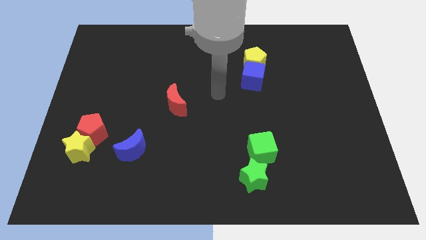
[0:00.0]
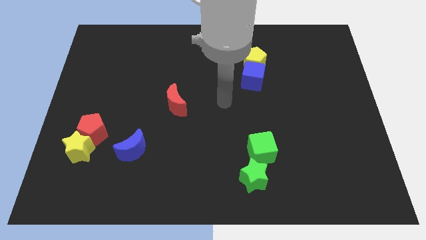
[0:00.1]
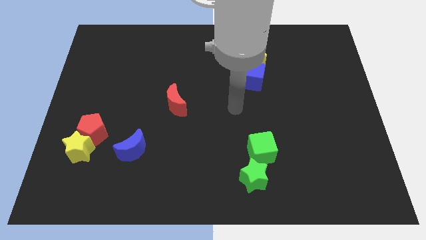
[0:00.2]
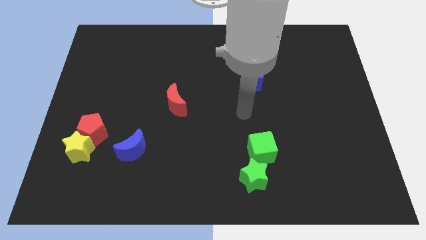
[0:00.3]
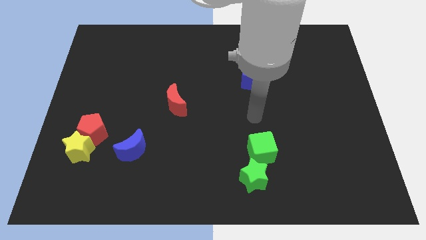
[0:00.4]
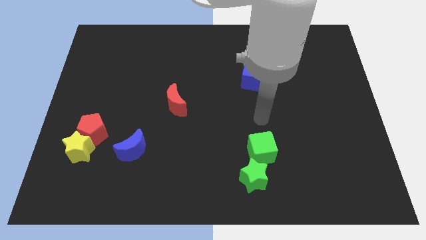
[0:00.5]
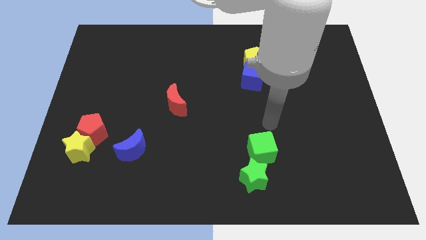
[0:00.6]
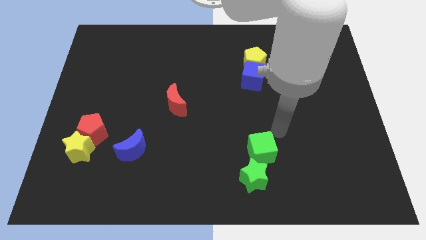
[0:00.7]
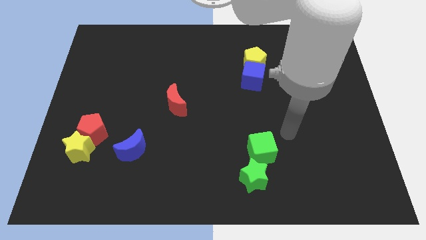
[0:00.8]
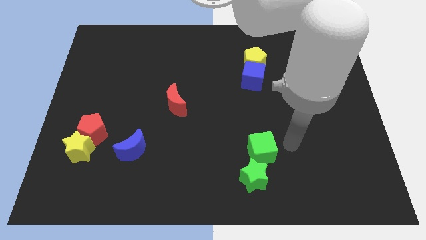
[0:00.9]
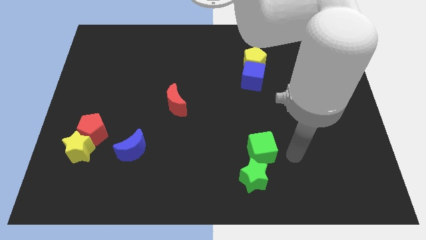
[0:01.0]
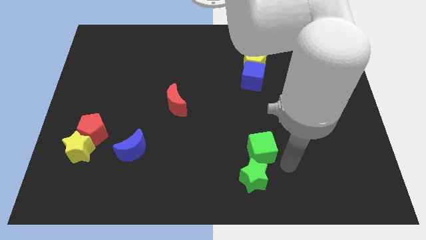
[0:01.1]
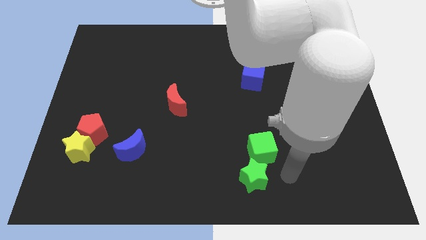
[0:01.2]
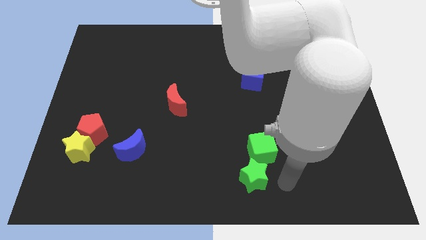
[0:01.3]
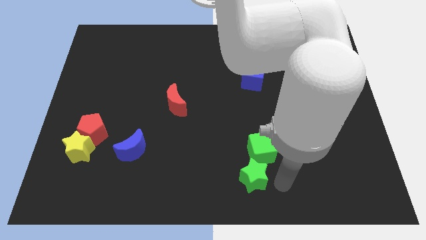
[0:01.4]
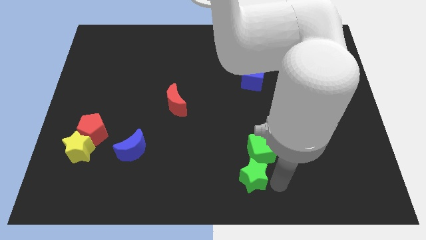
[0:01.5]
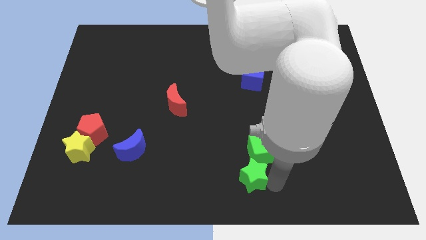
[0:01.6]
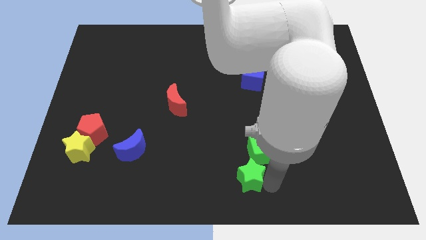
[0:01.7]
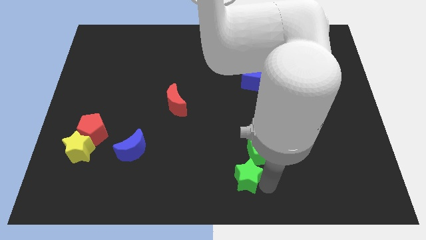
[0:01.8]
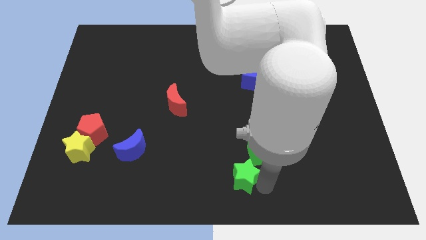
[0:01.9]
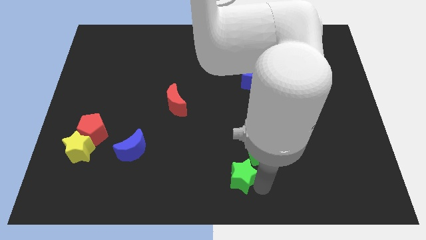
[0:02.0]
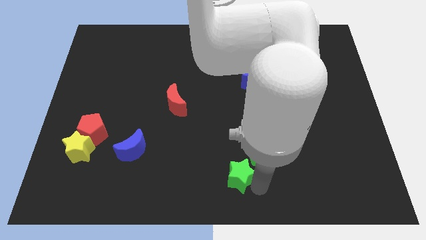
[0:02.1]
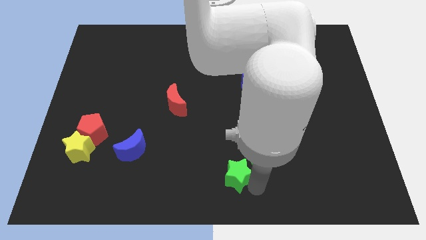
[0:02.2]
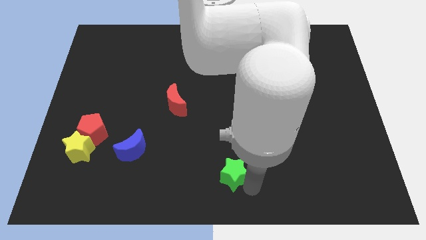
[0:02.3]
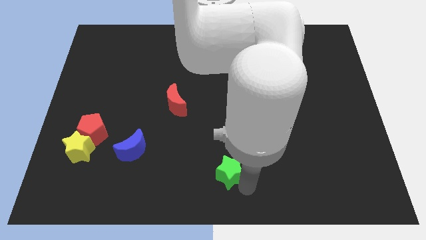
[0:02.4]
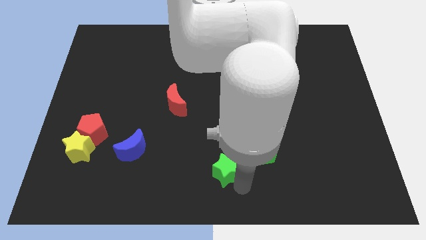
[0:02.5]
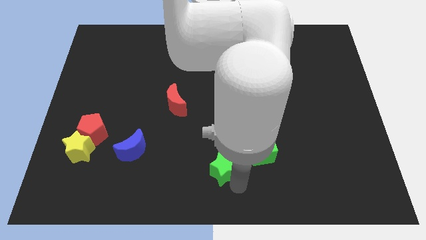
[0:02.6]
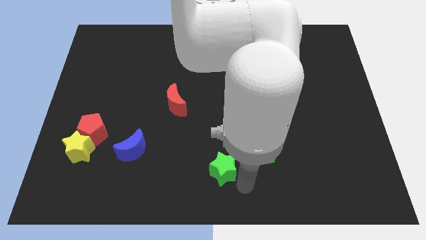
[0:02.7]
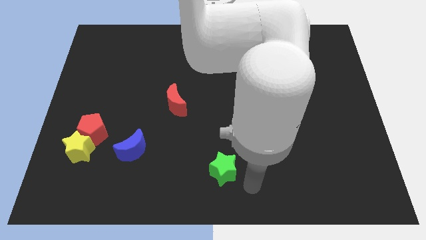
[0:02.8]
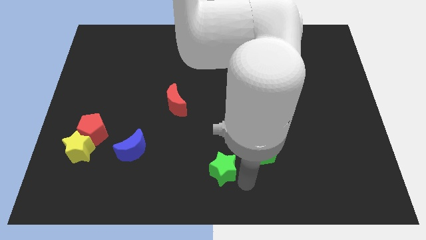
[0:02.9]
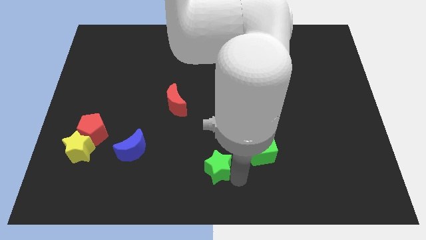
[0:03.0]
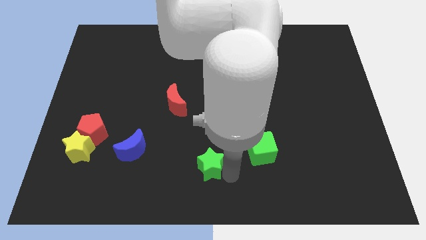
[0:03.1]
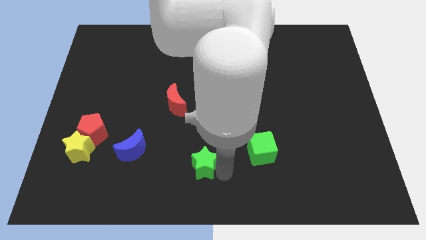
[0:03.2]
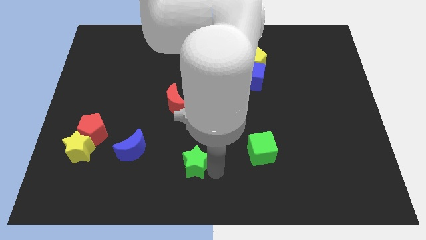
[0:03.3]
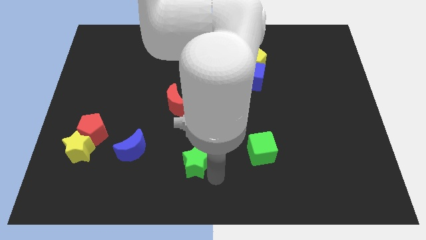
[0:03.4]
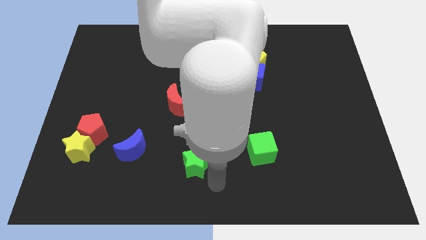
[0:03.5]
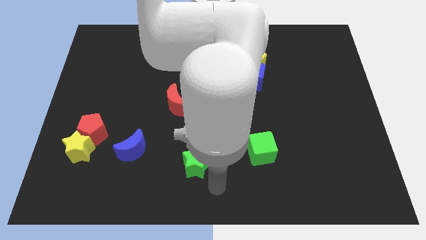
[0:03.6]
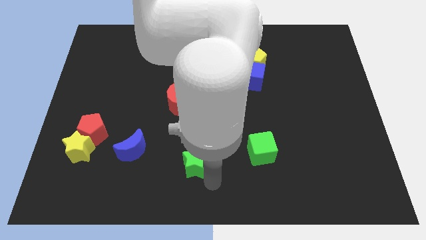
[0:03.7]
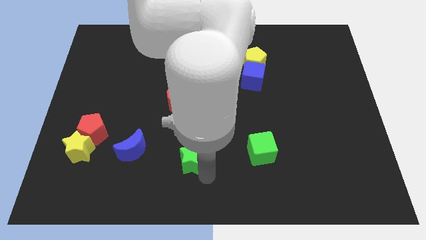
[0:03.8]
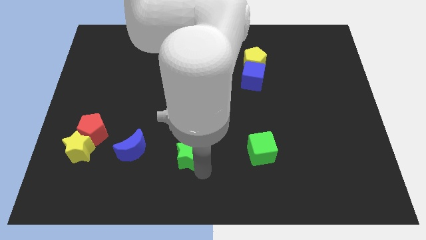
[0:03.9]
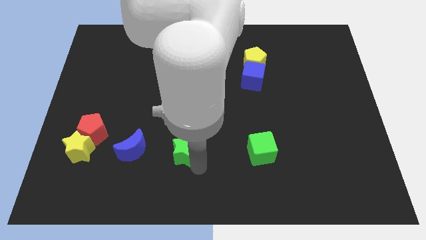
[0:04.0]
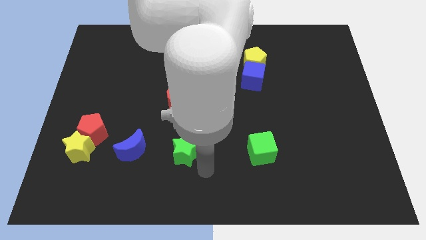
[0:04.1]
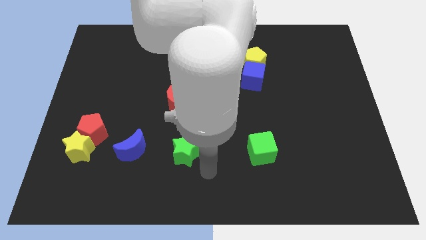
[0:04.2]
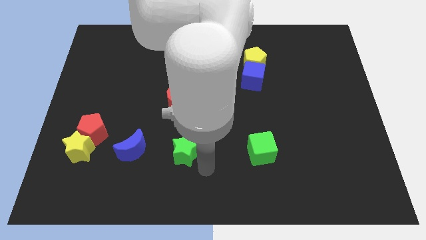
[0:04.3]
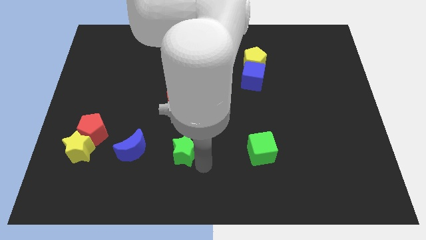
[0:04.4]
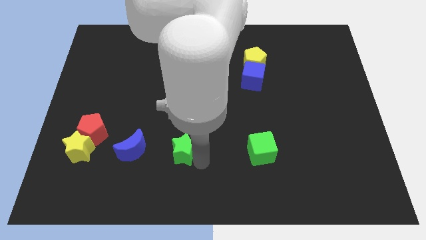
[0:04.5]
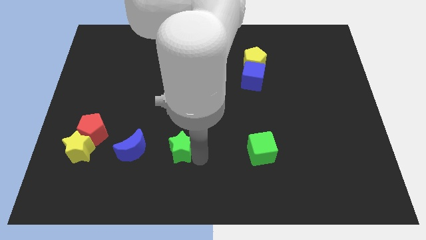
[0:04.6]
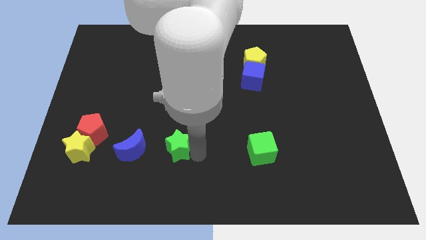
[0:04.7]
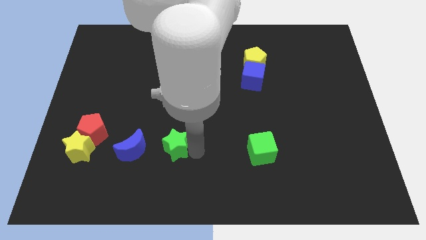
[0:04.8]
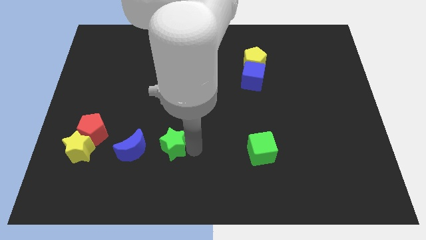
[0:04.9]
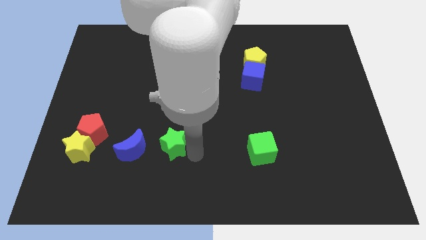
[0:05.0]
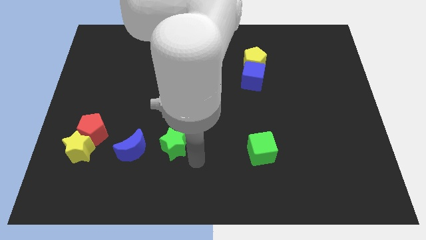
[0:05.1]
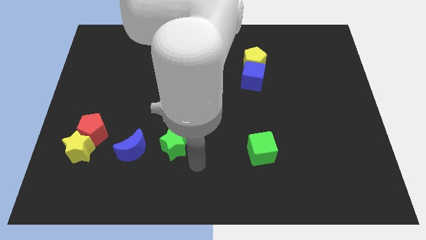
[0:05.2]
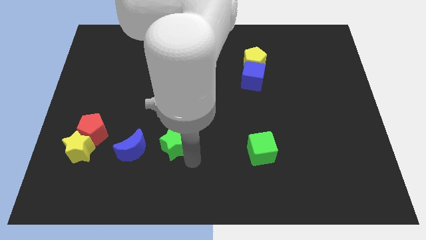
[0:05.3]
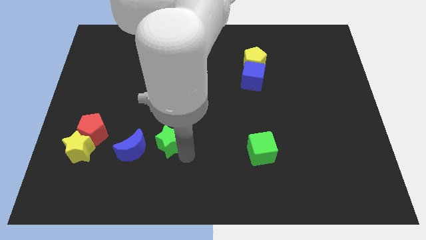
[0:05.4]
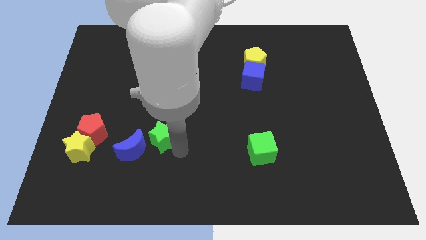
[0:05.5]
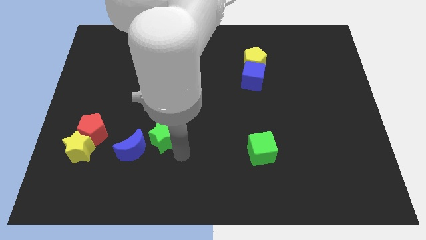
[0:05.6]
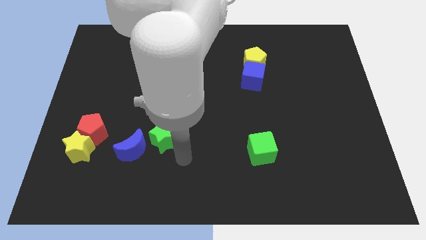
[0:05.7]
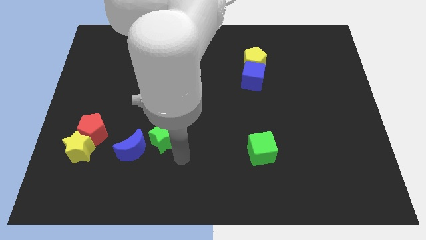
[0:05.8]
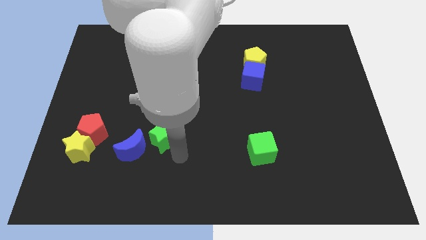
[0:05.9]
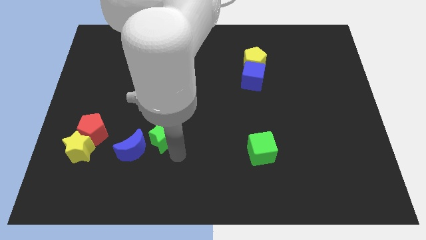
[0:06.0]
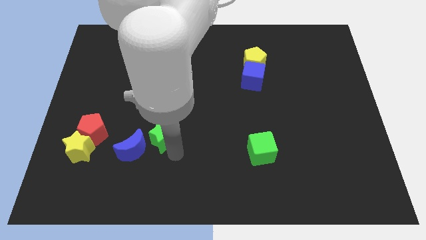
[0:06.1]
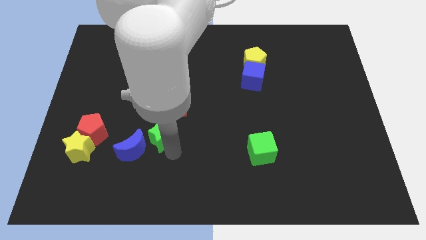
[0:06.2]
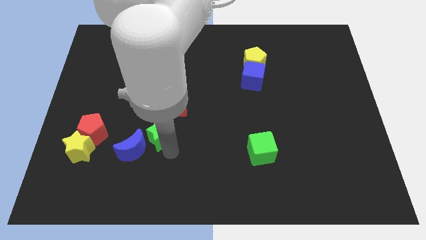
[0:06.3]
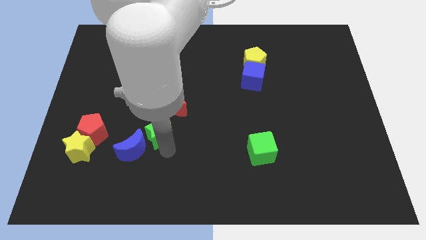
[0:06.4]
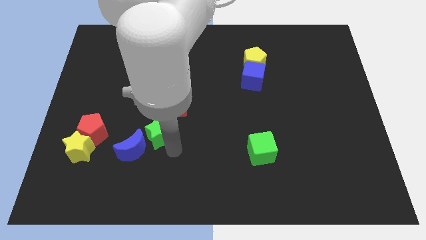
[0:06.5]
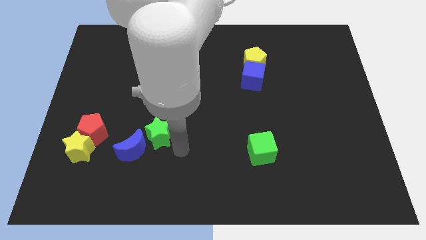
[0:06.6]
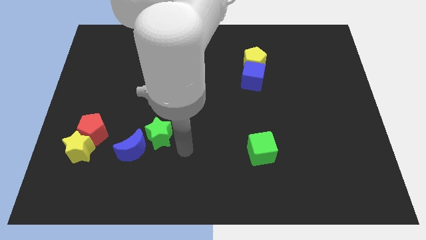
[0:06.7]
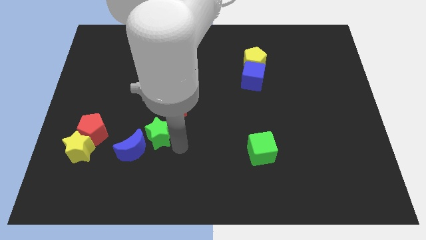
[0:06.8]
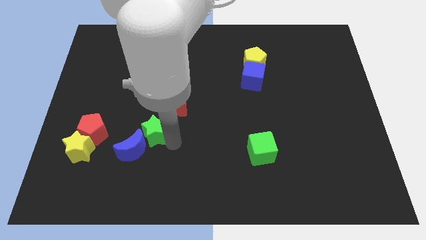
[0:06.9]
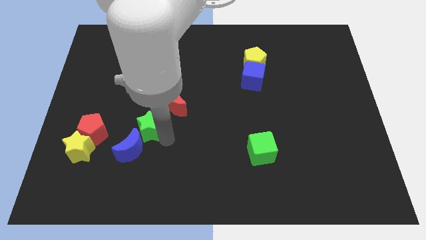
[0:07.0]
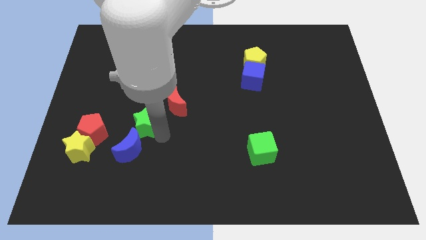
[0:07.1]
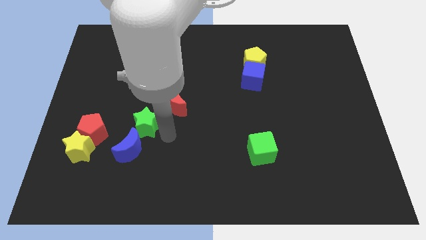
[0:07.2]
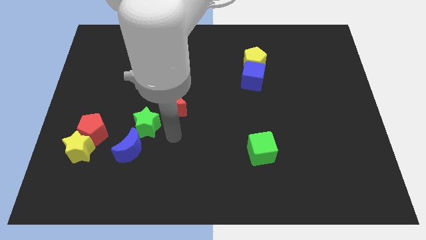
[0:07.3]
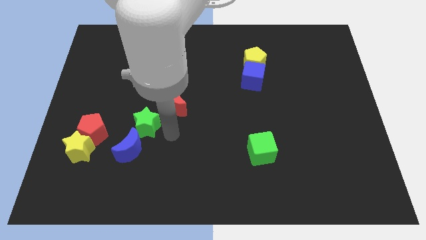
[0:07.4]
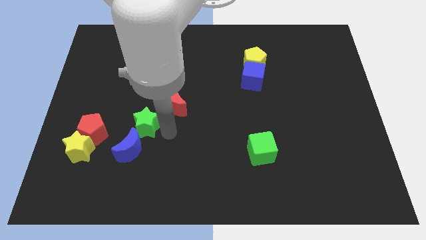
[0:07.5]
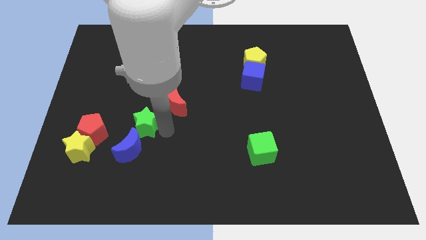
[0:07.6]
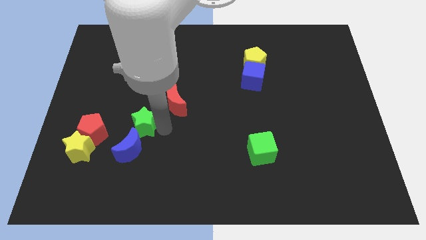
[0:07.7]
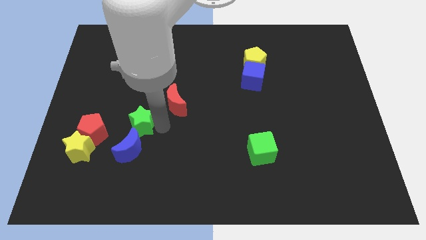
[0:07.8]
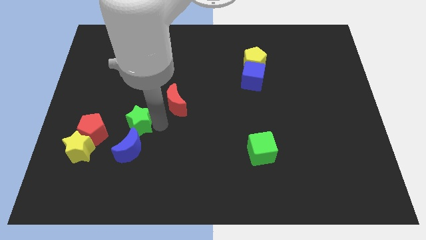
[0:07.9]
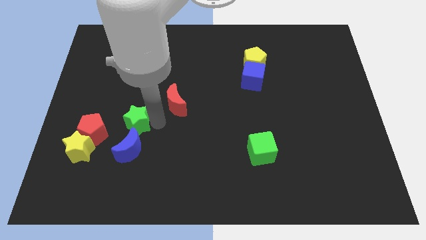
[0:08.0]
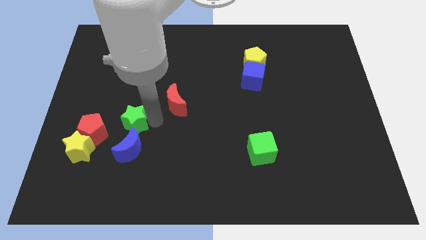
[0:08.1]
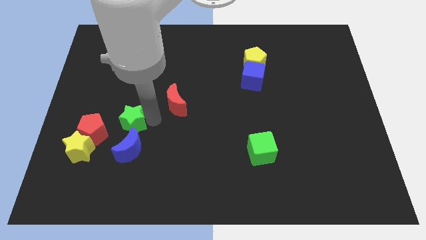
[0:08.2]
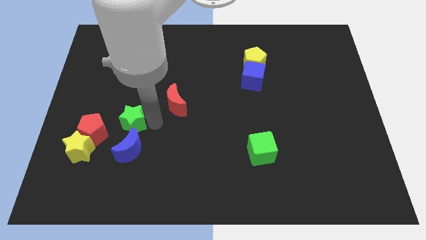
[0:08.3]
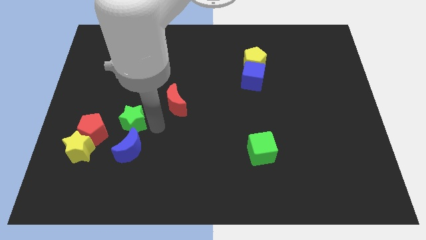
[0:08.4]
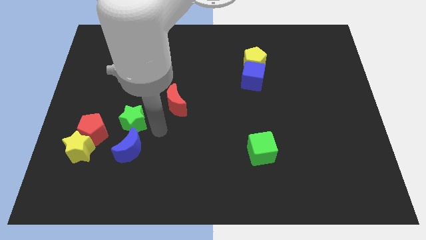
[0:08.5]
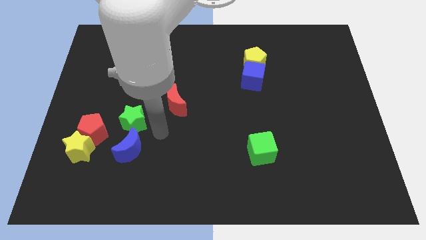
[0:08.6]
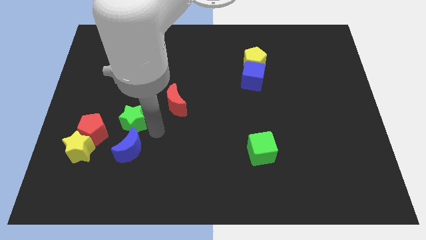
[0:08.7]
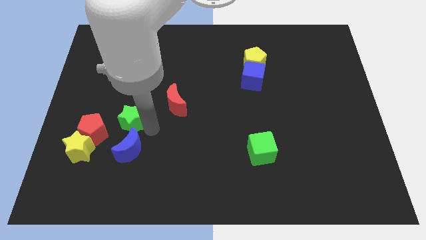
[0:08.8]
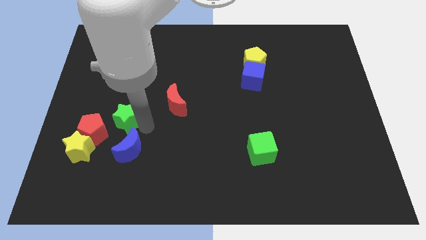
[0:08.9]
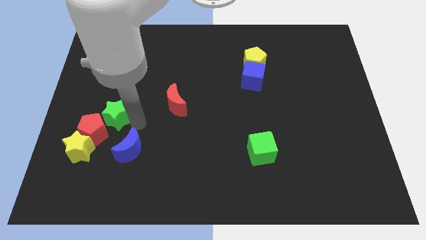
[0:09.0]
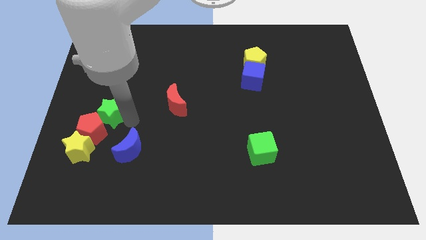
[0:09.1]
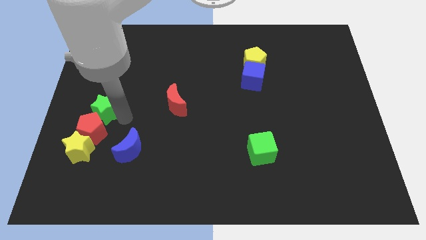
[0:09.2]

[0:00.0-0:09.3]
put the green star to the top of the yellow star
